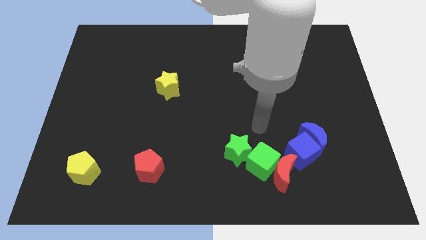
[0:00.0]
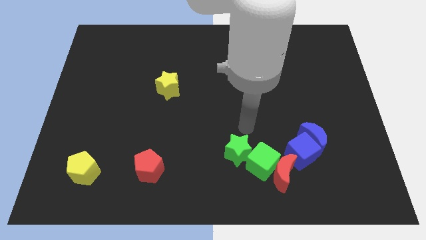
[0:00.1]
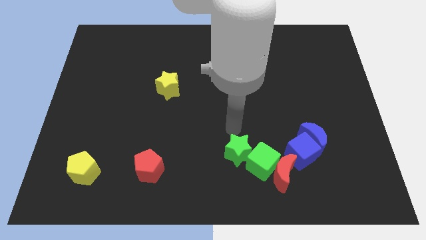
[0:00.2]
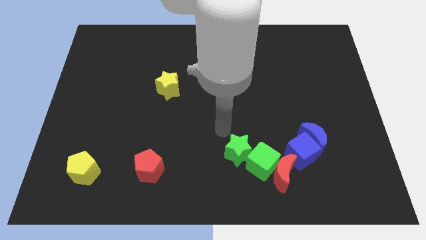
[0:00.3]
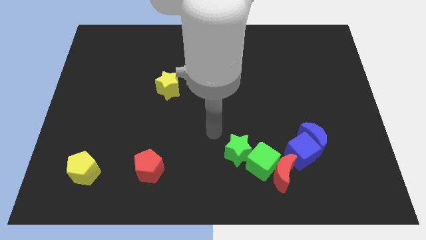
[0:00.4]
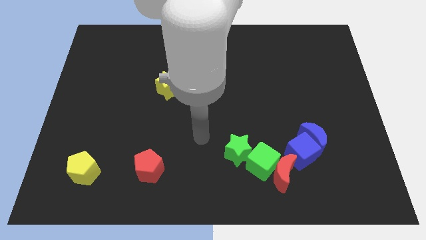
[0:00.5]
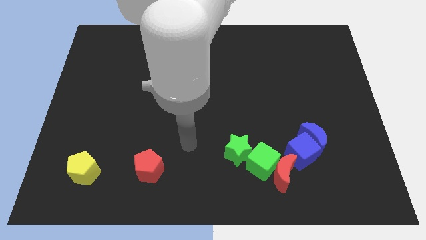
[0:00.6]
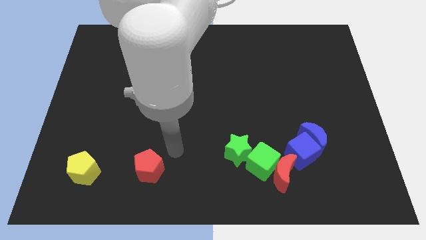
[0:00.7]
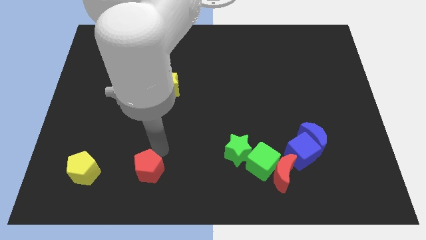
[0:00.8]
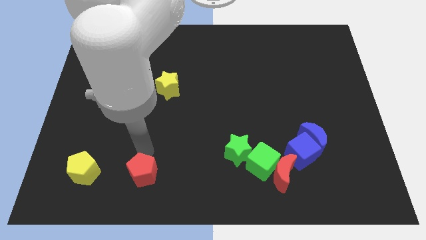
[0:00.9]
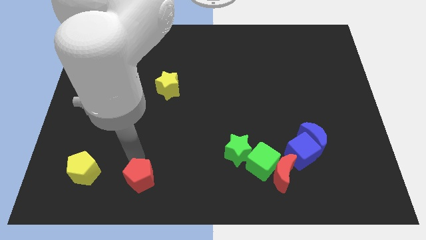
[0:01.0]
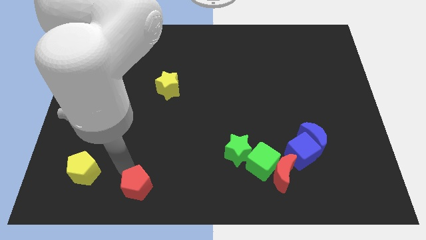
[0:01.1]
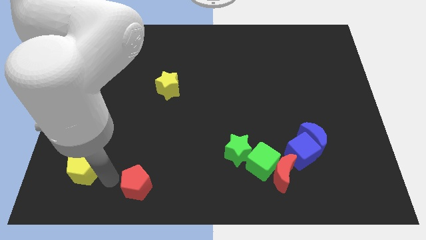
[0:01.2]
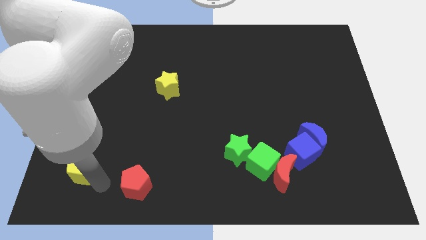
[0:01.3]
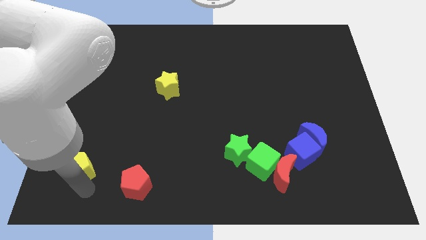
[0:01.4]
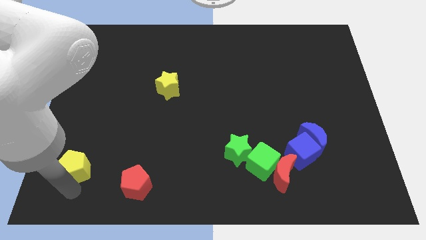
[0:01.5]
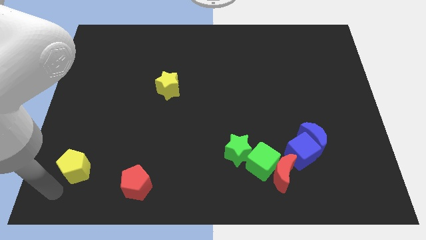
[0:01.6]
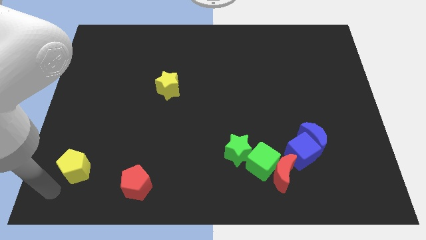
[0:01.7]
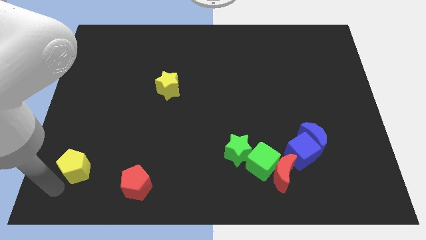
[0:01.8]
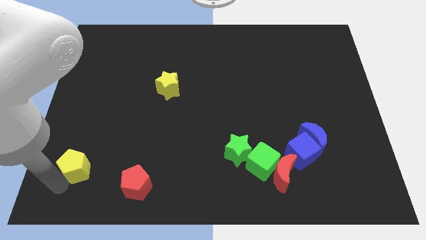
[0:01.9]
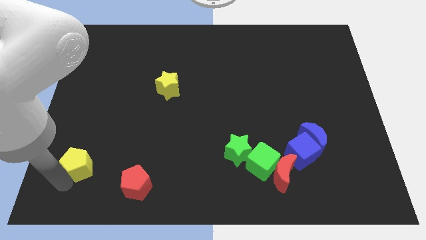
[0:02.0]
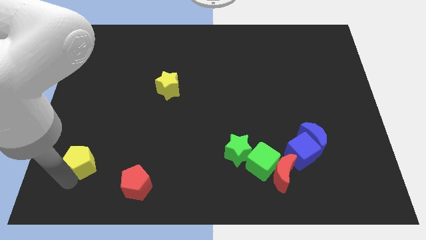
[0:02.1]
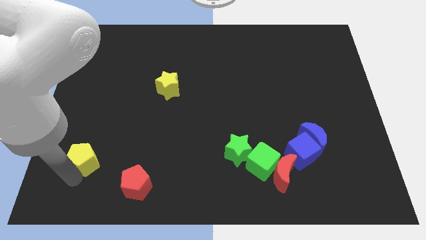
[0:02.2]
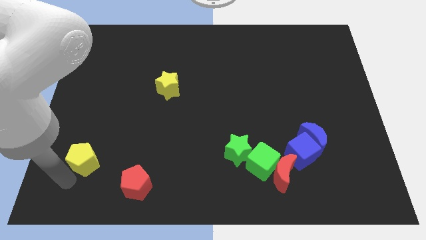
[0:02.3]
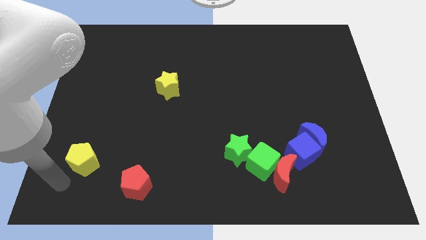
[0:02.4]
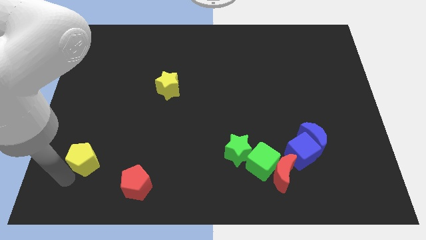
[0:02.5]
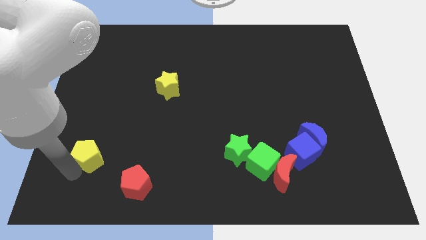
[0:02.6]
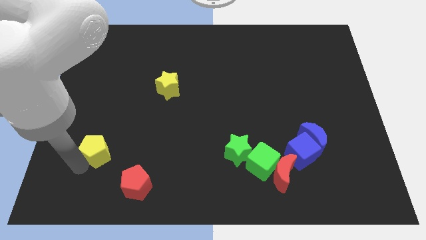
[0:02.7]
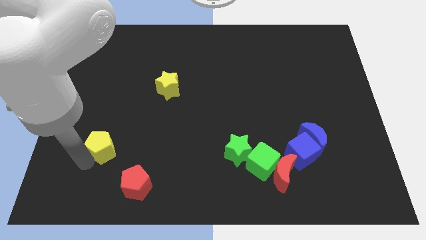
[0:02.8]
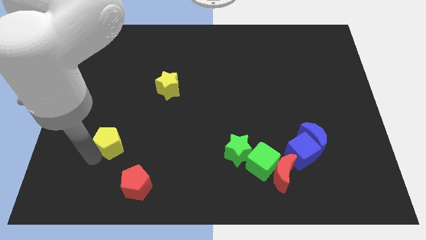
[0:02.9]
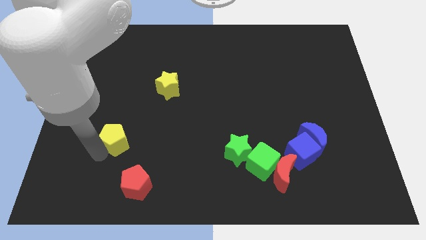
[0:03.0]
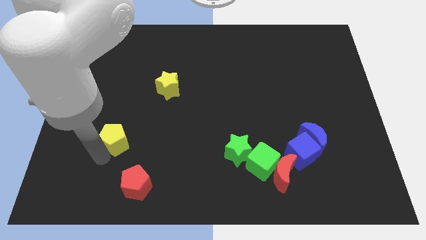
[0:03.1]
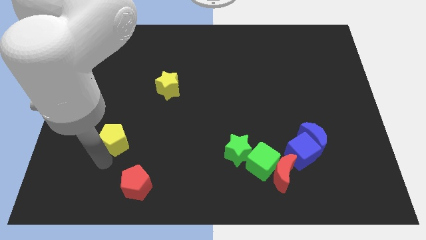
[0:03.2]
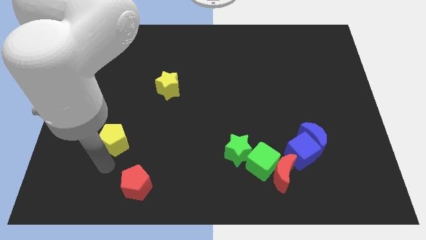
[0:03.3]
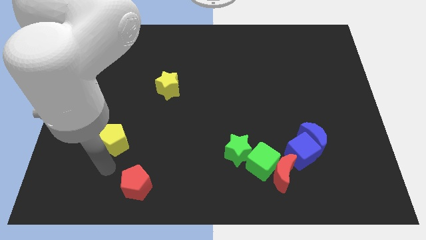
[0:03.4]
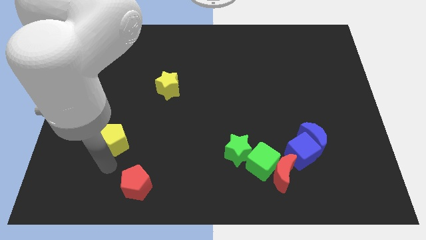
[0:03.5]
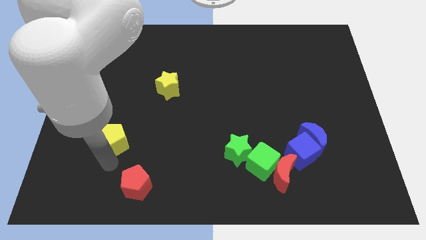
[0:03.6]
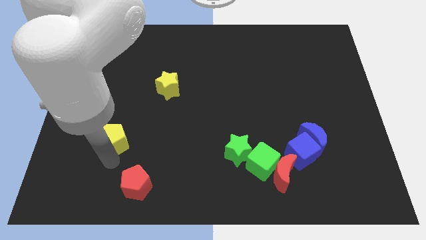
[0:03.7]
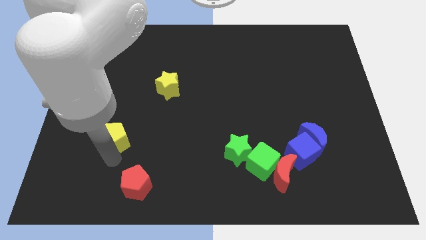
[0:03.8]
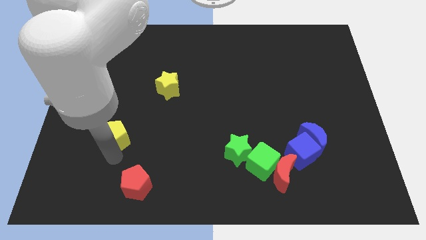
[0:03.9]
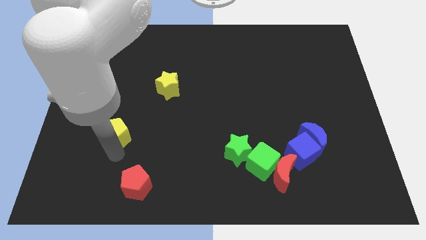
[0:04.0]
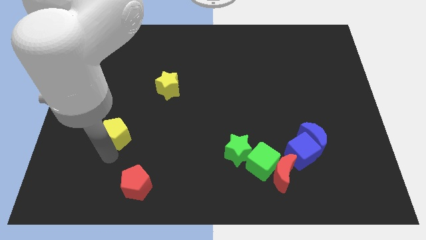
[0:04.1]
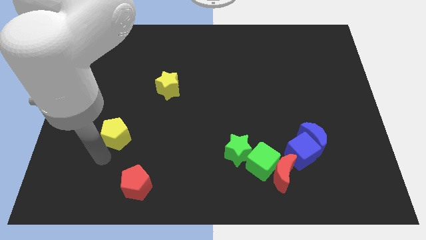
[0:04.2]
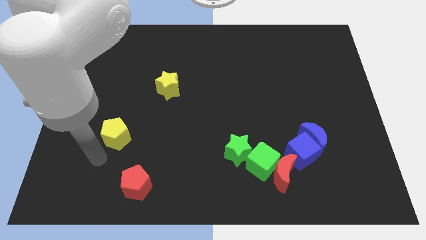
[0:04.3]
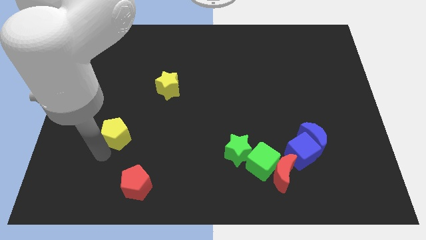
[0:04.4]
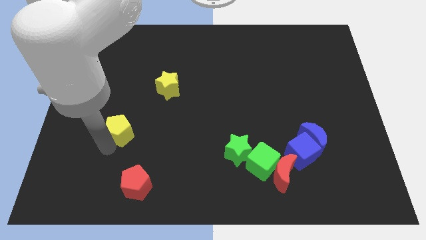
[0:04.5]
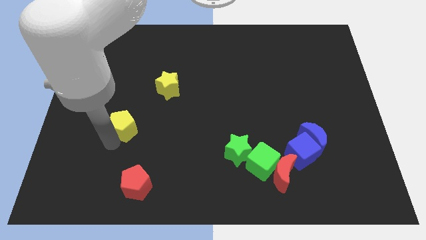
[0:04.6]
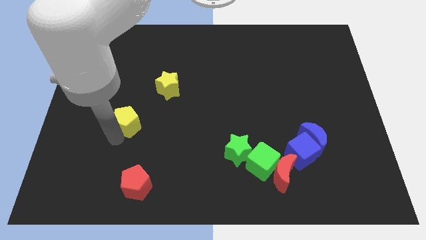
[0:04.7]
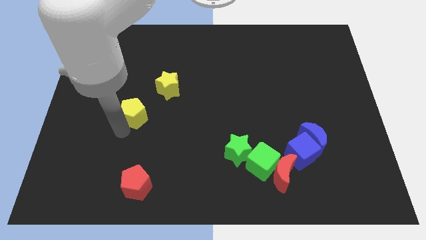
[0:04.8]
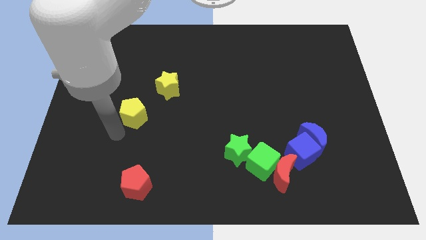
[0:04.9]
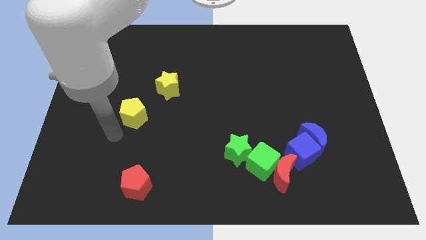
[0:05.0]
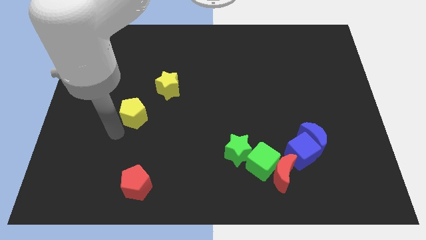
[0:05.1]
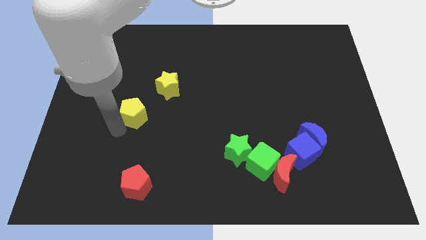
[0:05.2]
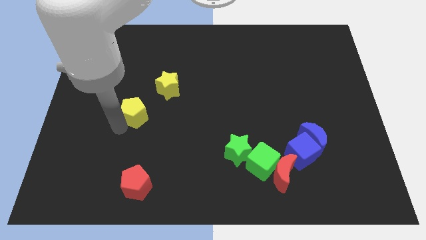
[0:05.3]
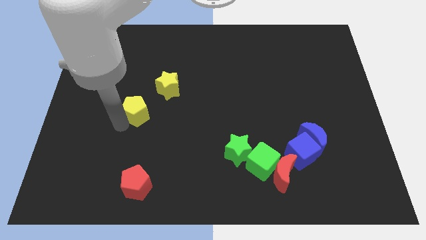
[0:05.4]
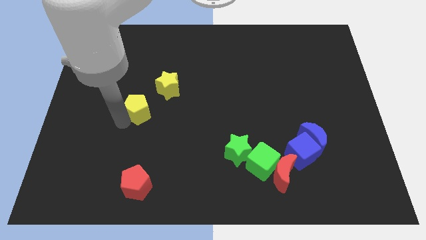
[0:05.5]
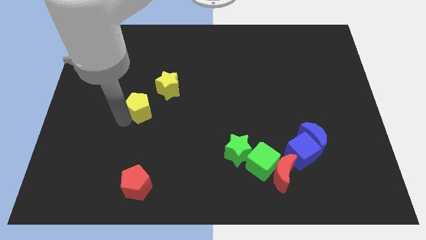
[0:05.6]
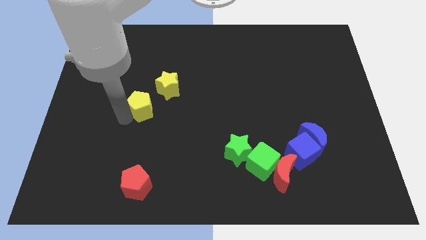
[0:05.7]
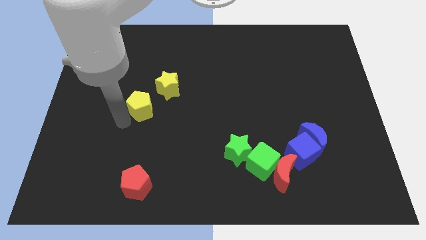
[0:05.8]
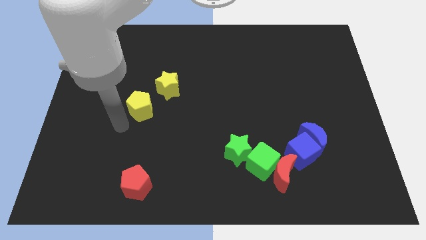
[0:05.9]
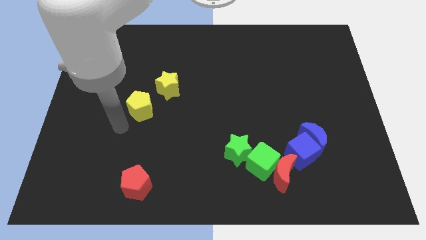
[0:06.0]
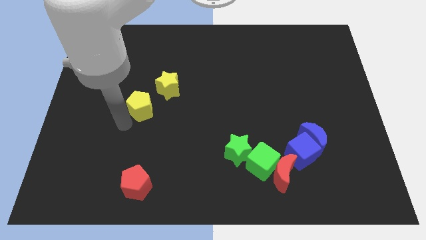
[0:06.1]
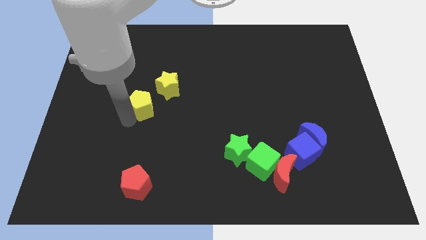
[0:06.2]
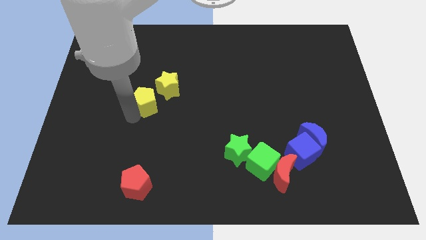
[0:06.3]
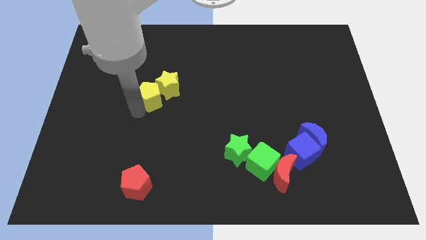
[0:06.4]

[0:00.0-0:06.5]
move the yellow pentagon to the yellow star

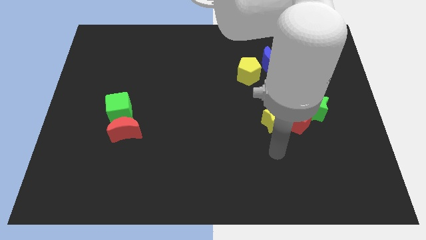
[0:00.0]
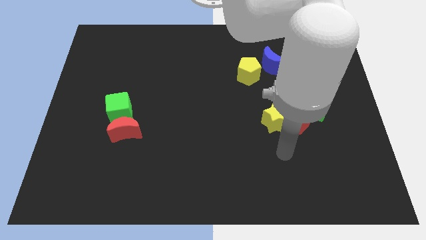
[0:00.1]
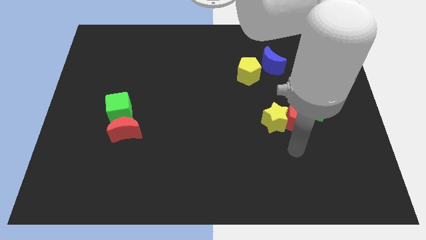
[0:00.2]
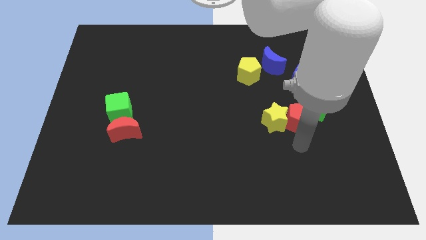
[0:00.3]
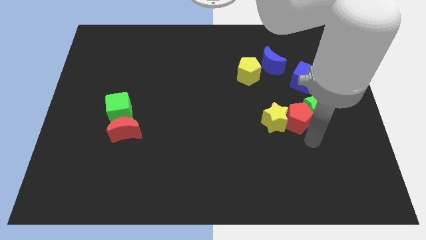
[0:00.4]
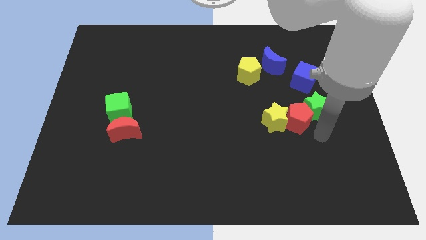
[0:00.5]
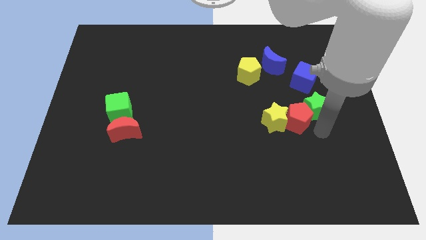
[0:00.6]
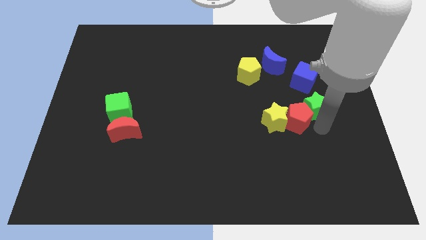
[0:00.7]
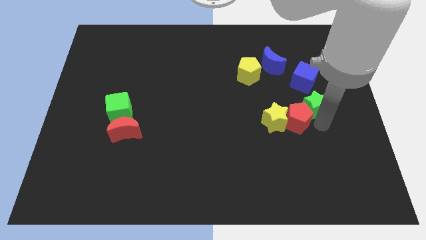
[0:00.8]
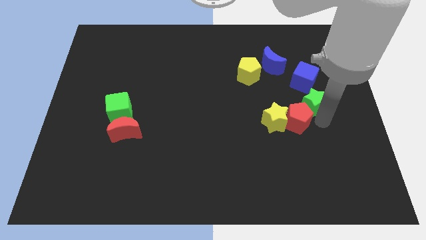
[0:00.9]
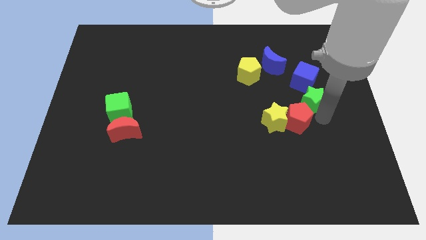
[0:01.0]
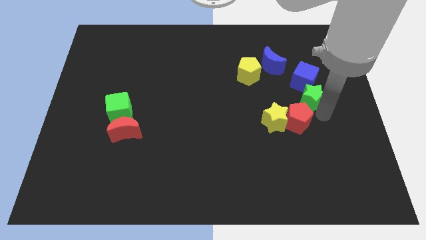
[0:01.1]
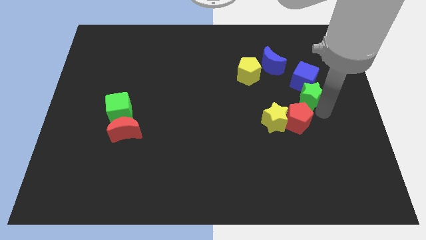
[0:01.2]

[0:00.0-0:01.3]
slide the green star close to the blue cube
